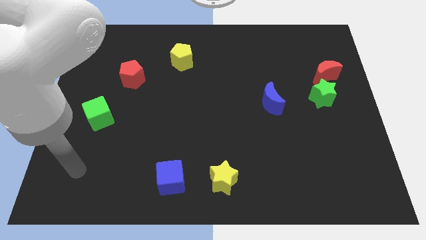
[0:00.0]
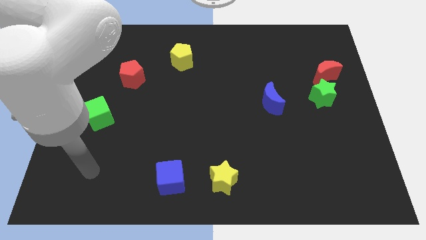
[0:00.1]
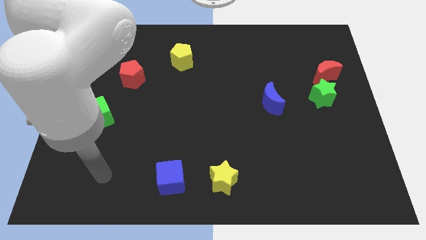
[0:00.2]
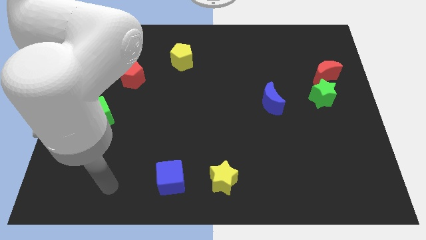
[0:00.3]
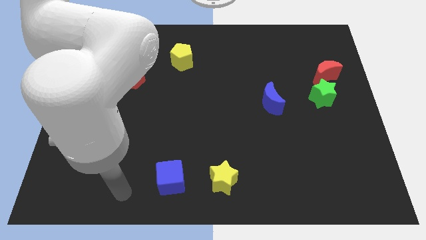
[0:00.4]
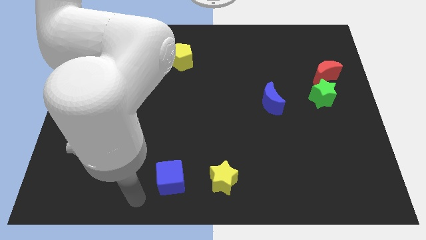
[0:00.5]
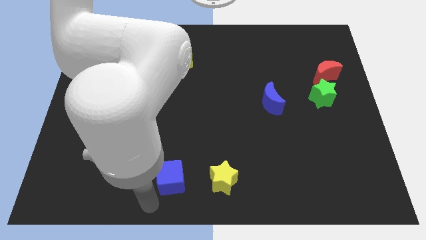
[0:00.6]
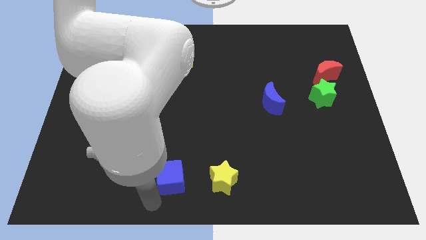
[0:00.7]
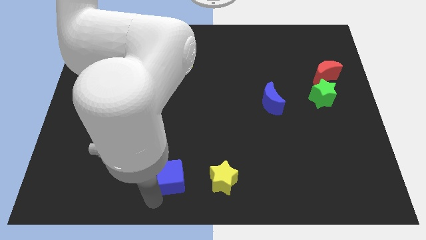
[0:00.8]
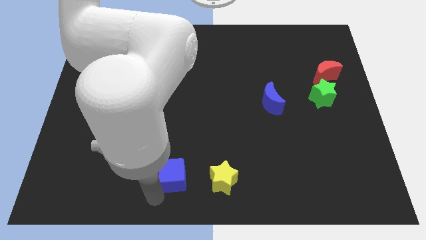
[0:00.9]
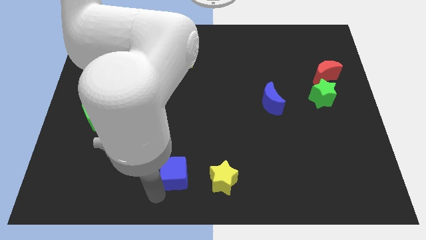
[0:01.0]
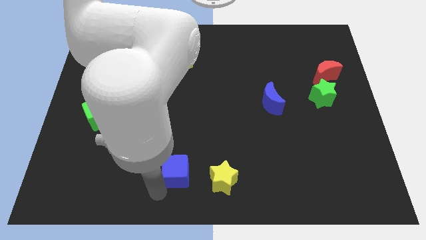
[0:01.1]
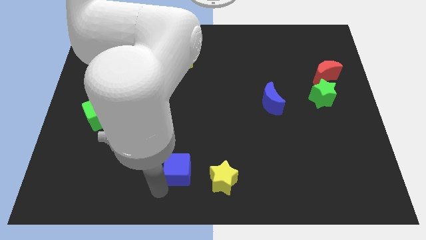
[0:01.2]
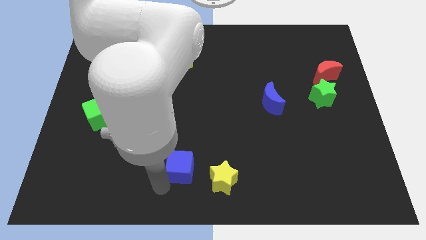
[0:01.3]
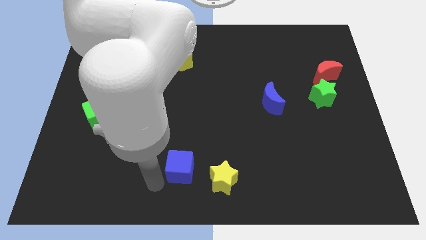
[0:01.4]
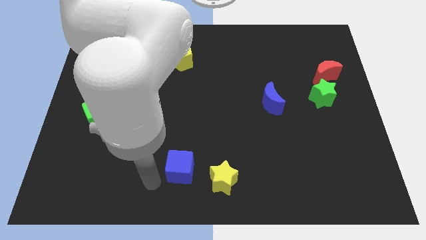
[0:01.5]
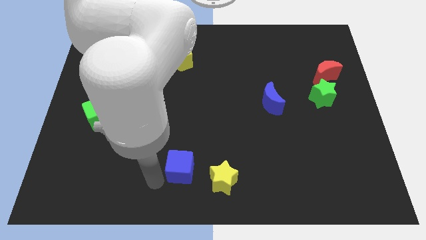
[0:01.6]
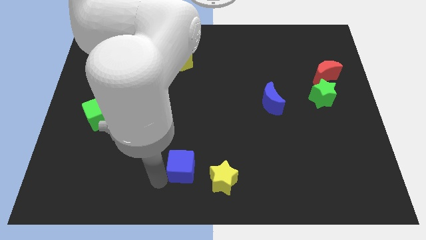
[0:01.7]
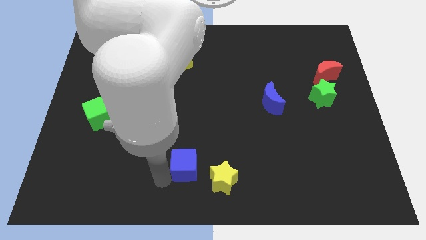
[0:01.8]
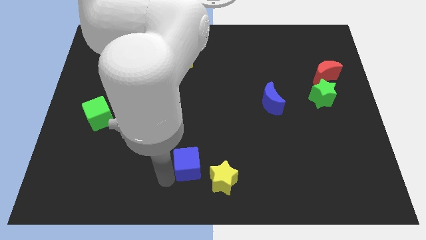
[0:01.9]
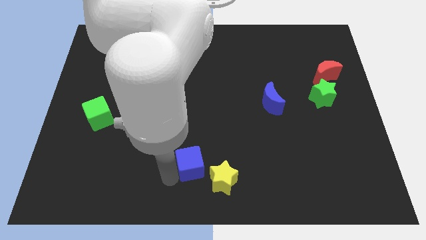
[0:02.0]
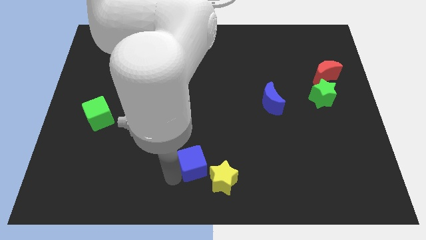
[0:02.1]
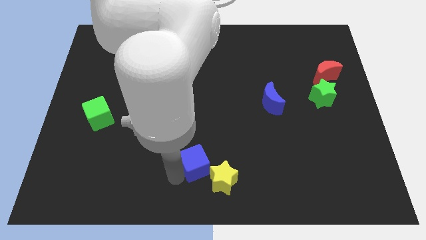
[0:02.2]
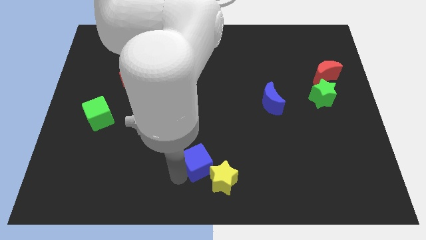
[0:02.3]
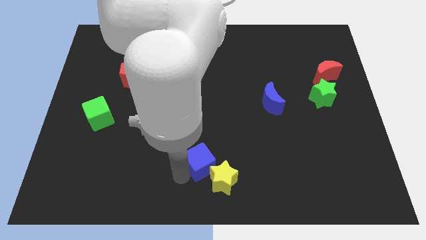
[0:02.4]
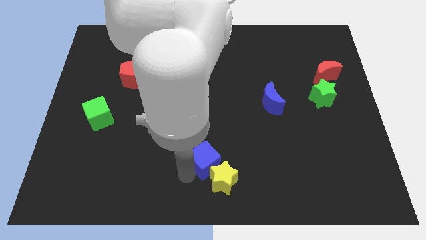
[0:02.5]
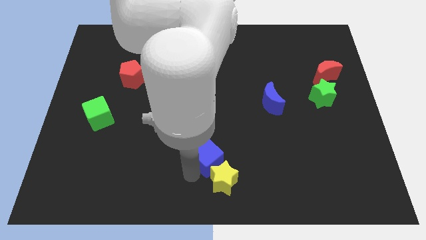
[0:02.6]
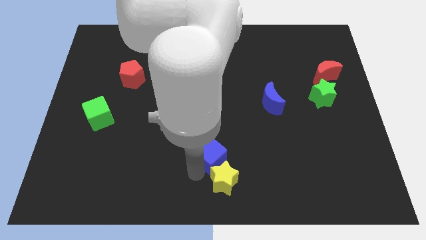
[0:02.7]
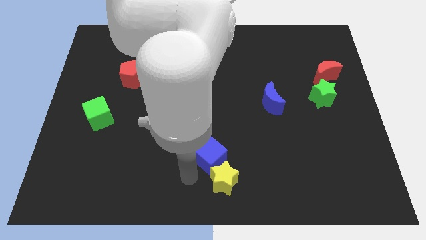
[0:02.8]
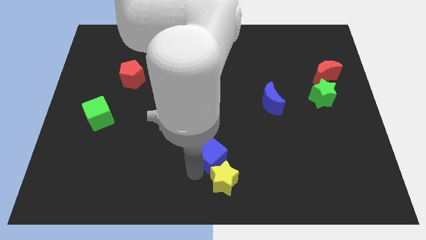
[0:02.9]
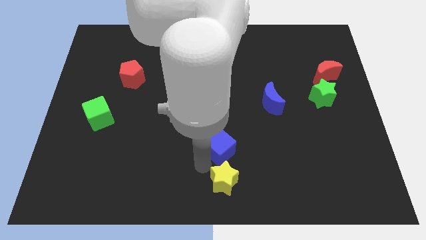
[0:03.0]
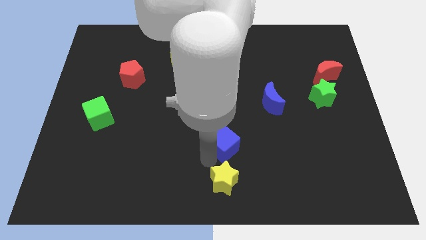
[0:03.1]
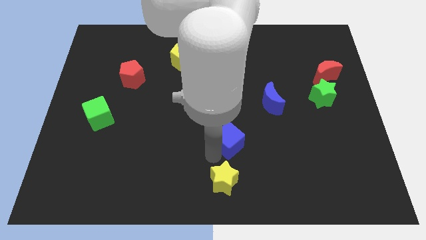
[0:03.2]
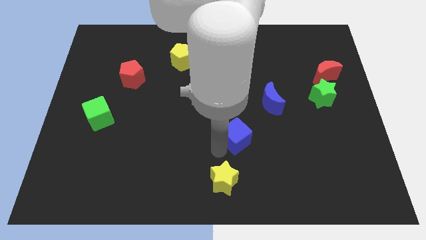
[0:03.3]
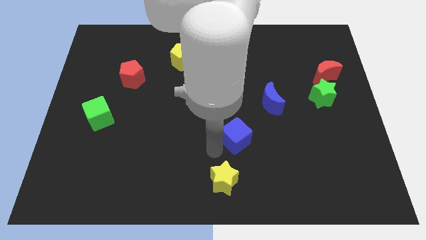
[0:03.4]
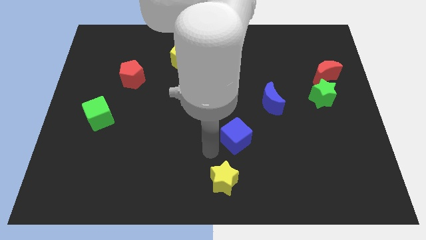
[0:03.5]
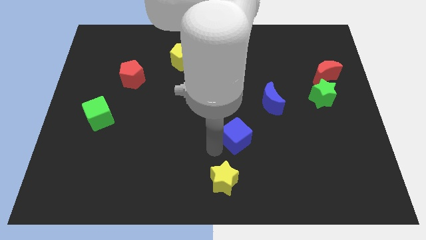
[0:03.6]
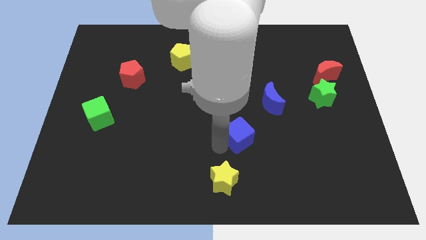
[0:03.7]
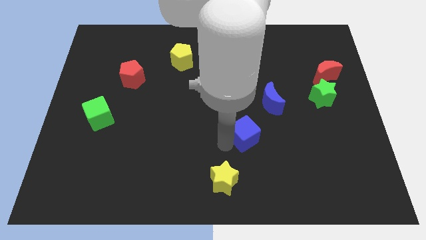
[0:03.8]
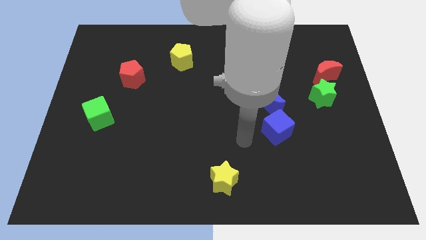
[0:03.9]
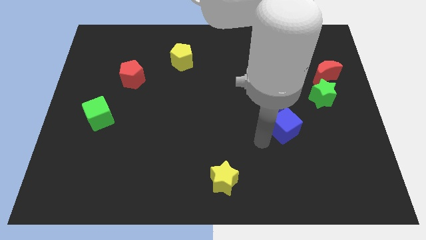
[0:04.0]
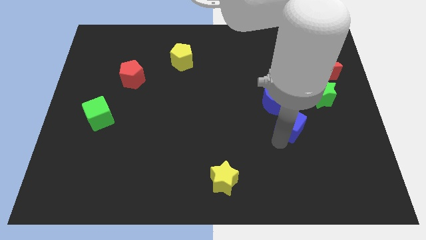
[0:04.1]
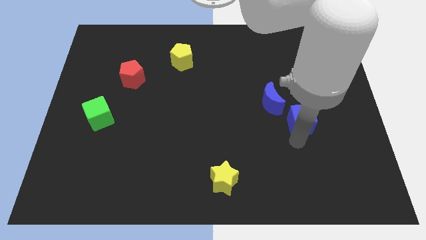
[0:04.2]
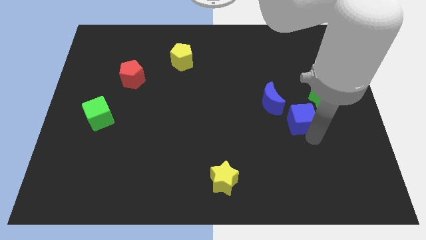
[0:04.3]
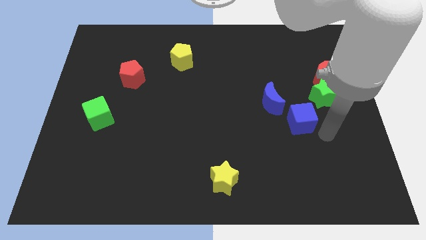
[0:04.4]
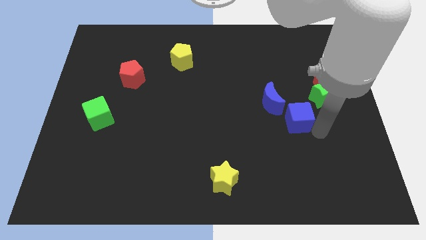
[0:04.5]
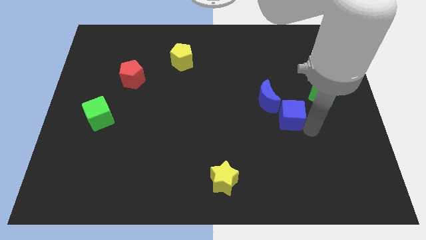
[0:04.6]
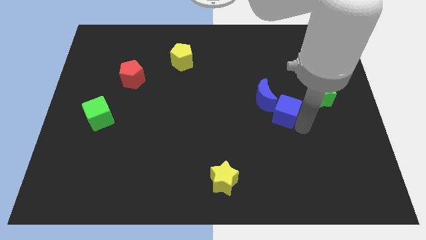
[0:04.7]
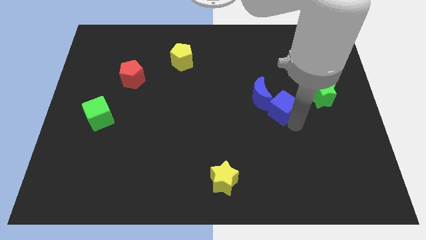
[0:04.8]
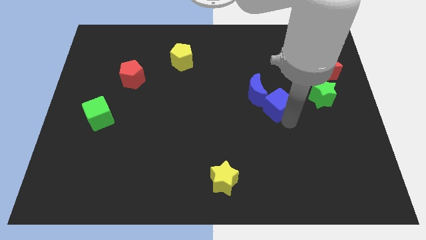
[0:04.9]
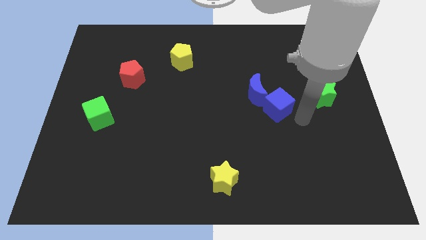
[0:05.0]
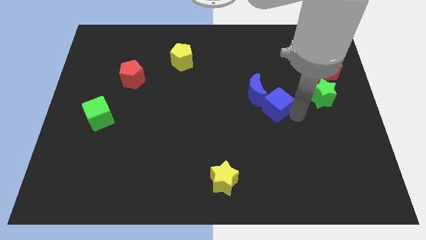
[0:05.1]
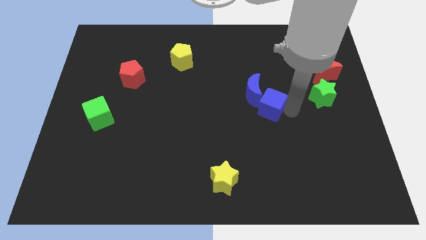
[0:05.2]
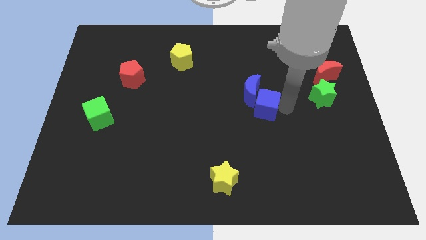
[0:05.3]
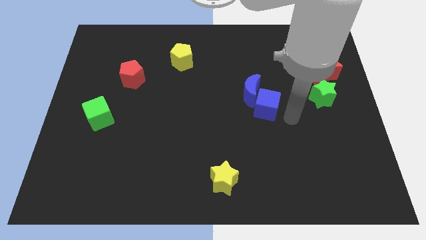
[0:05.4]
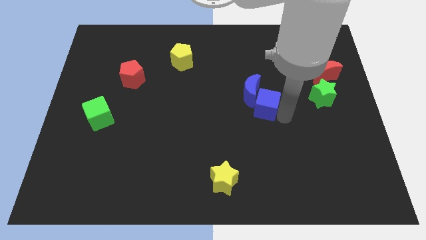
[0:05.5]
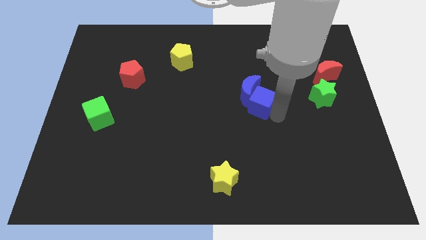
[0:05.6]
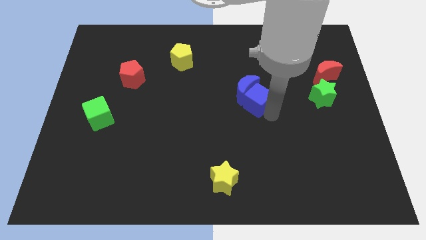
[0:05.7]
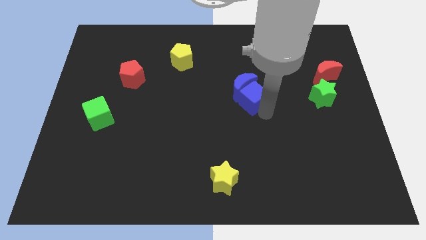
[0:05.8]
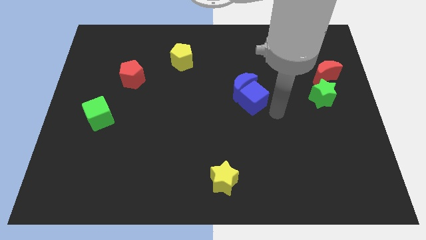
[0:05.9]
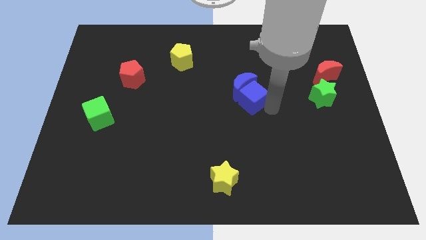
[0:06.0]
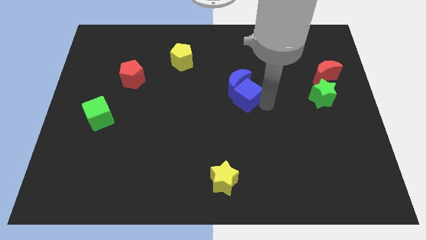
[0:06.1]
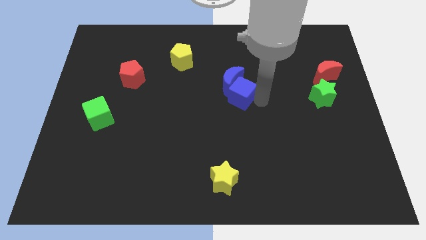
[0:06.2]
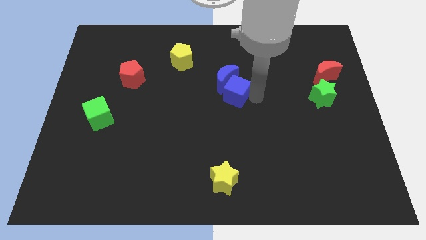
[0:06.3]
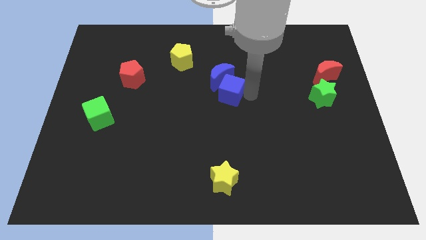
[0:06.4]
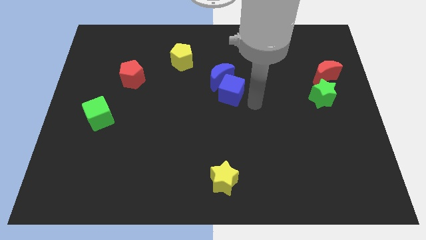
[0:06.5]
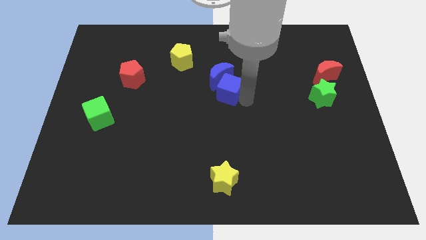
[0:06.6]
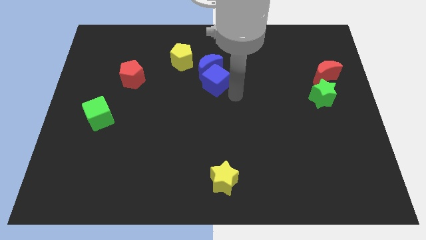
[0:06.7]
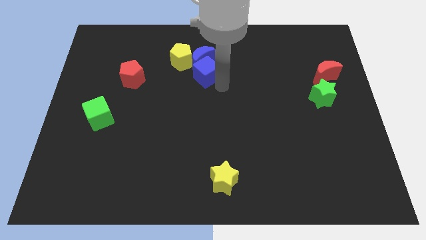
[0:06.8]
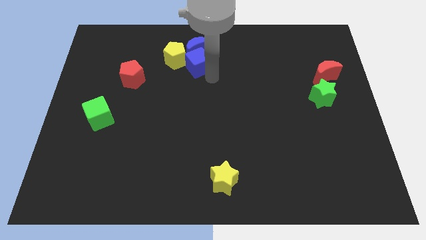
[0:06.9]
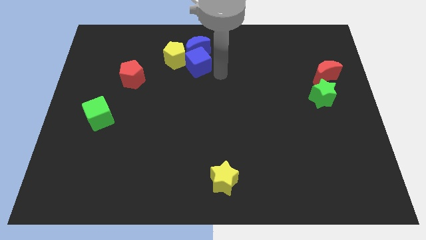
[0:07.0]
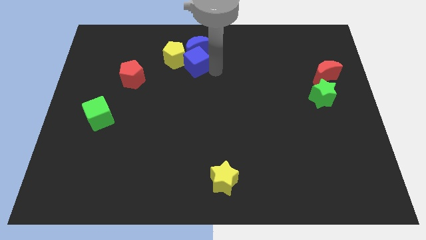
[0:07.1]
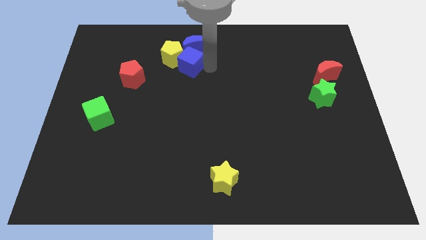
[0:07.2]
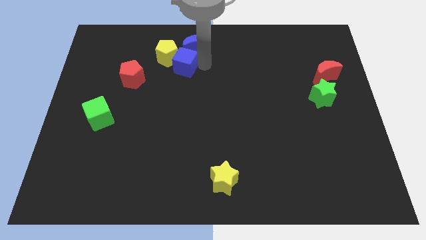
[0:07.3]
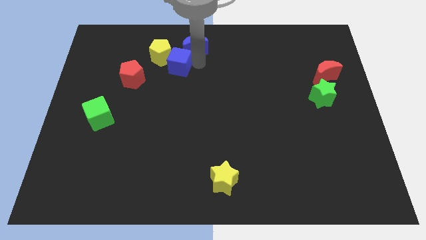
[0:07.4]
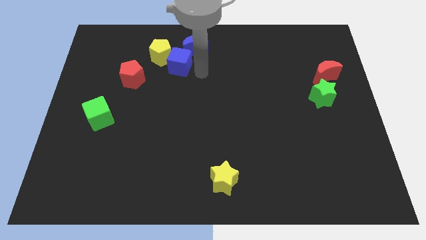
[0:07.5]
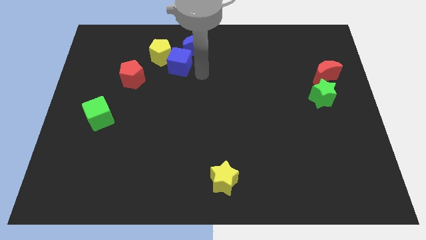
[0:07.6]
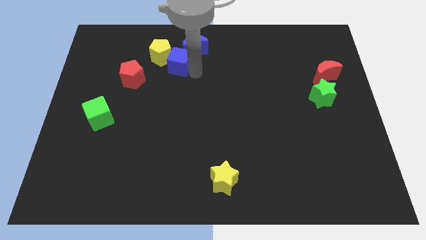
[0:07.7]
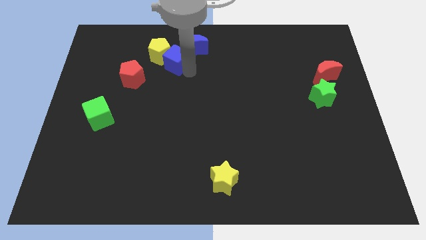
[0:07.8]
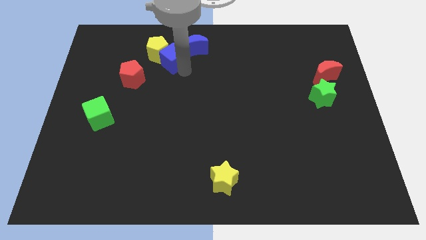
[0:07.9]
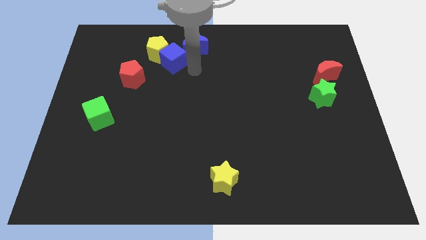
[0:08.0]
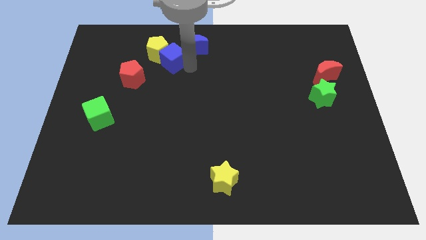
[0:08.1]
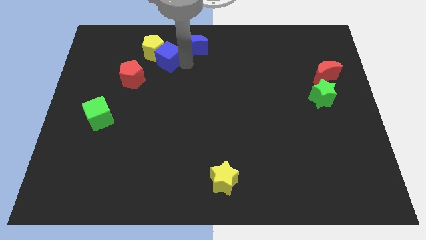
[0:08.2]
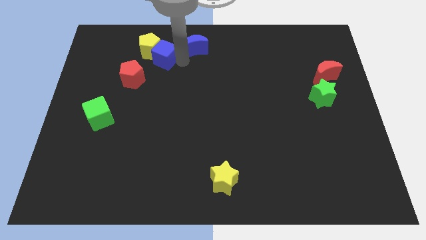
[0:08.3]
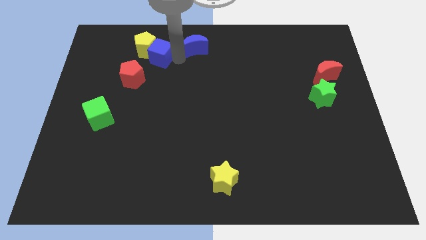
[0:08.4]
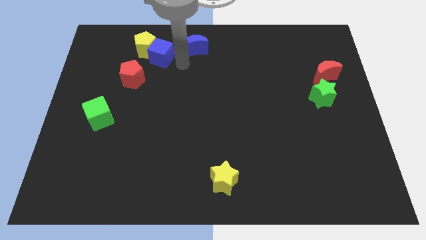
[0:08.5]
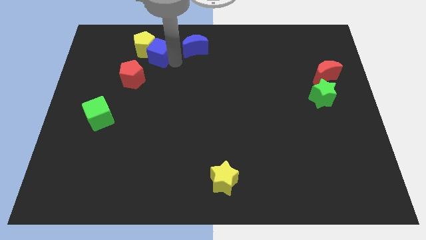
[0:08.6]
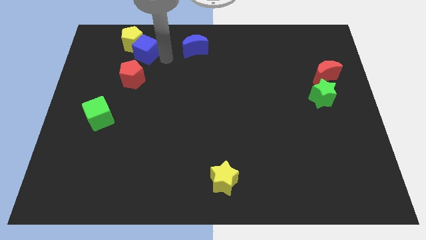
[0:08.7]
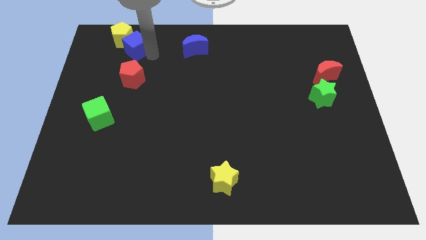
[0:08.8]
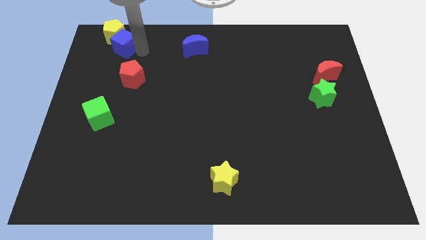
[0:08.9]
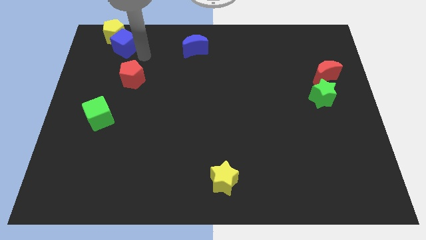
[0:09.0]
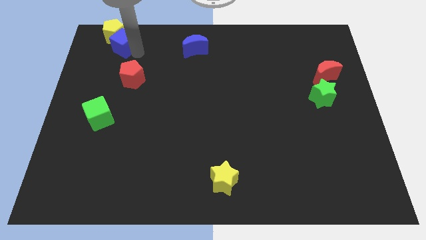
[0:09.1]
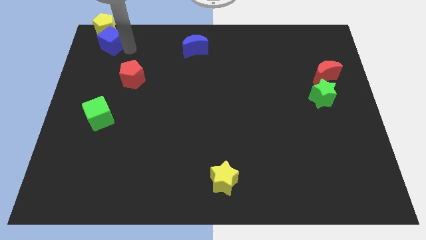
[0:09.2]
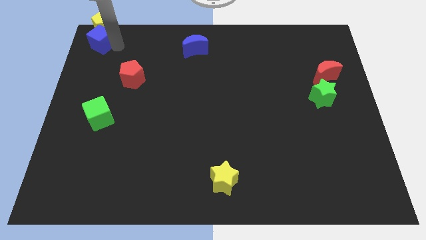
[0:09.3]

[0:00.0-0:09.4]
move the blue cube to the top left corner
